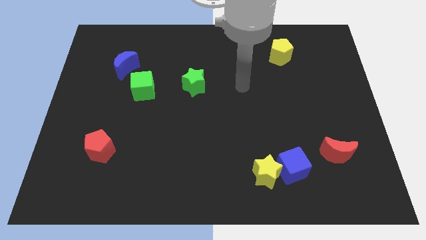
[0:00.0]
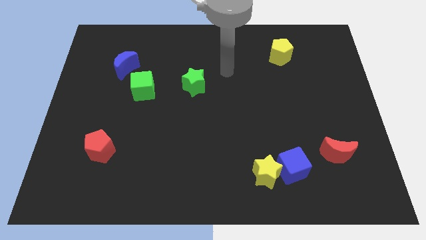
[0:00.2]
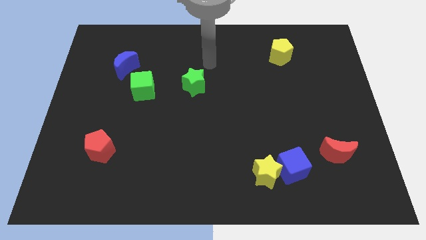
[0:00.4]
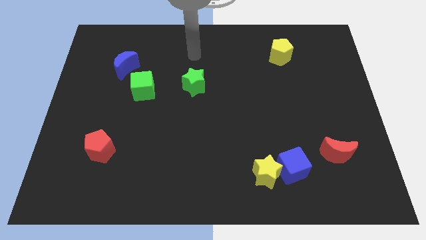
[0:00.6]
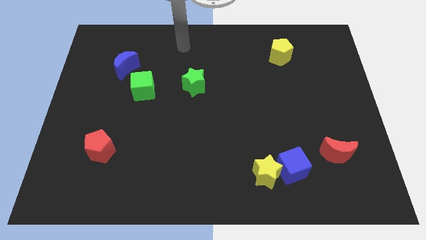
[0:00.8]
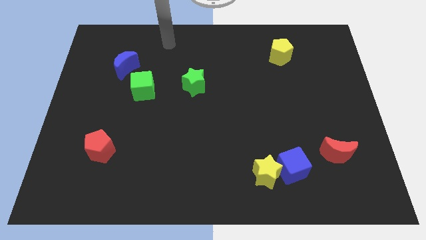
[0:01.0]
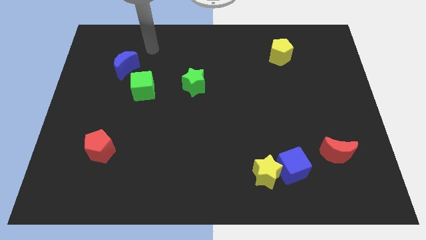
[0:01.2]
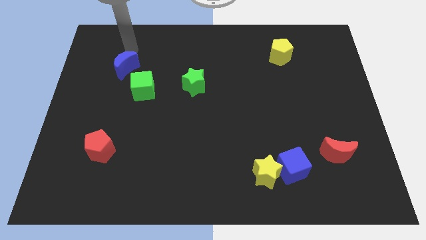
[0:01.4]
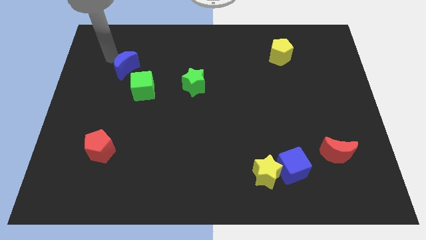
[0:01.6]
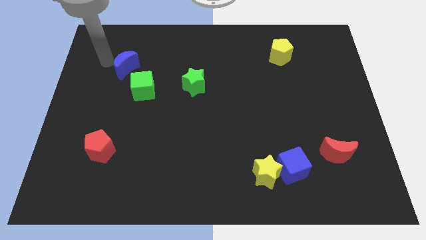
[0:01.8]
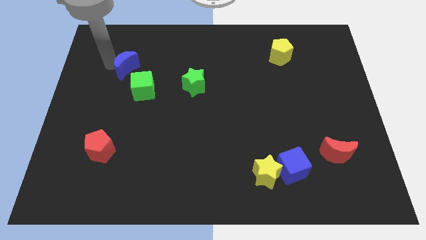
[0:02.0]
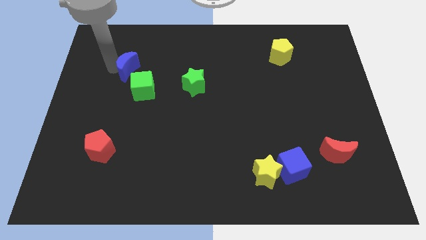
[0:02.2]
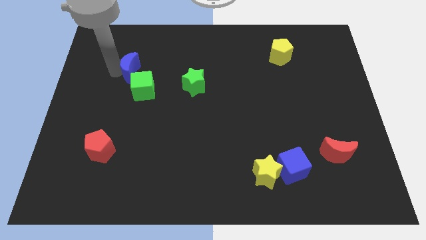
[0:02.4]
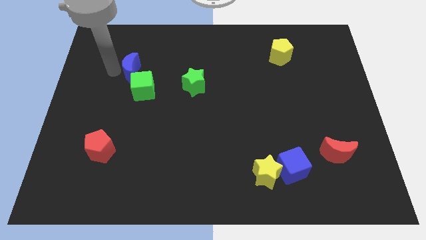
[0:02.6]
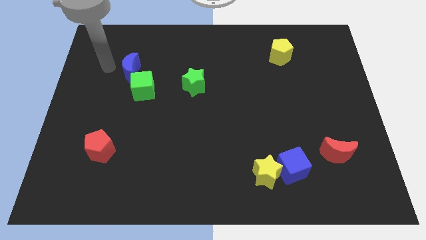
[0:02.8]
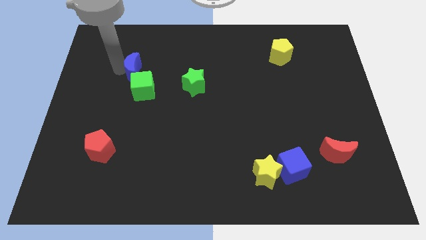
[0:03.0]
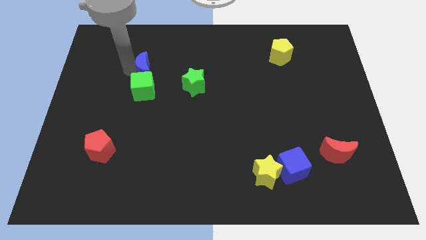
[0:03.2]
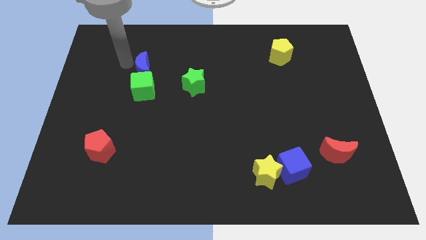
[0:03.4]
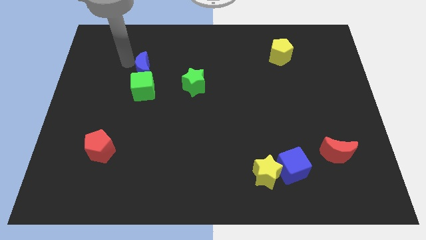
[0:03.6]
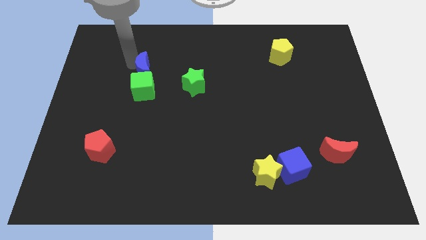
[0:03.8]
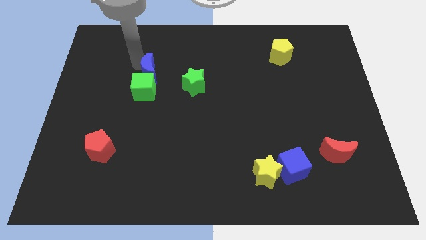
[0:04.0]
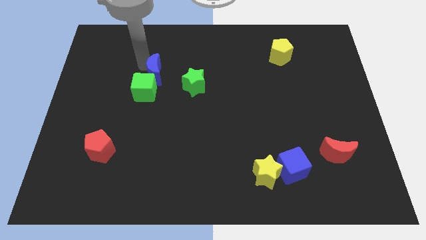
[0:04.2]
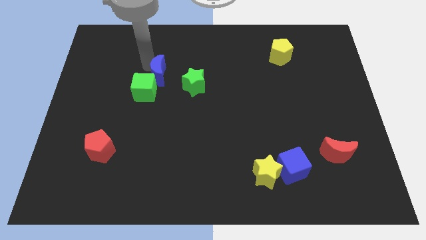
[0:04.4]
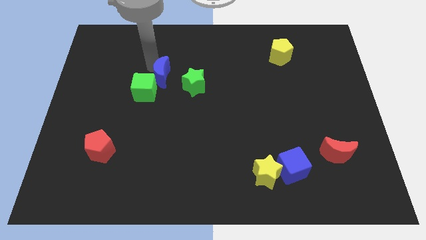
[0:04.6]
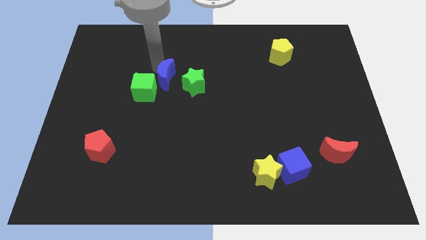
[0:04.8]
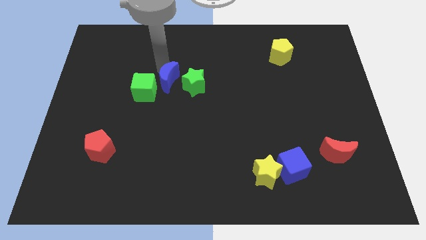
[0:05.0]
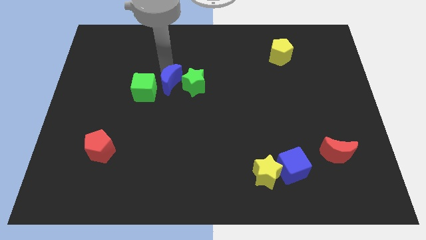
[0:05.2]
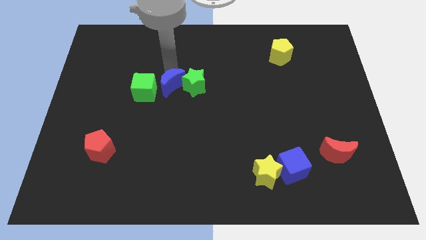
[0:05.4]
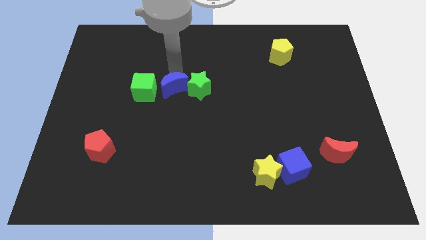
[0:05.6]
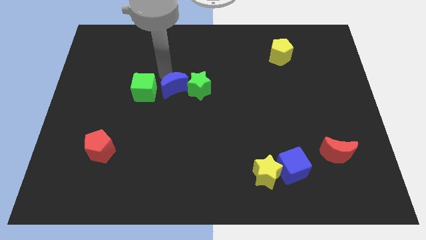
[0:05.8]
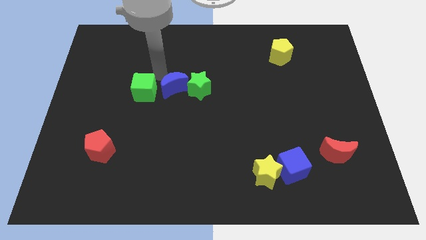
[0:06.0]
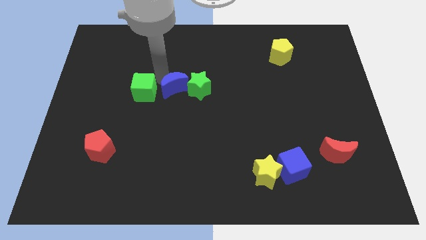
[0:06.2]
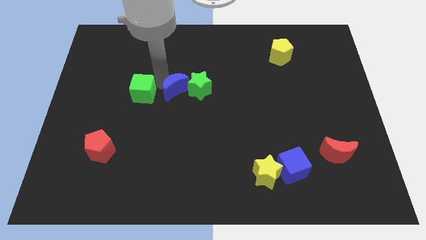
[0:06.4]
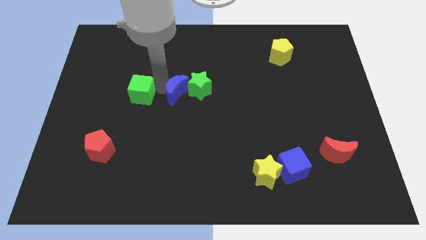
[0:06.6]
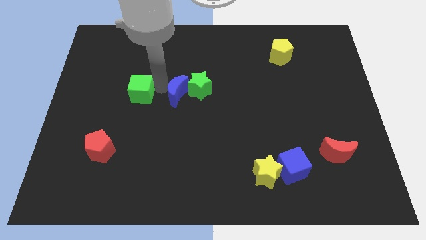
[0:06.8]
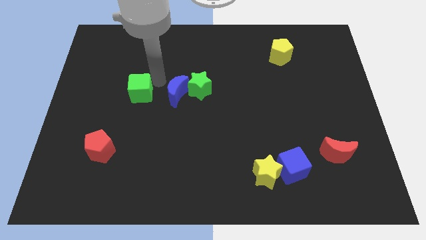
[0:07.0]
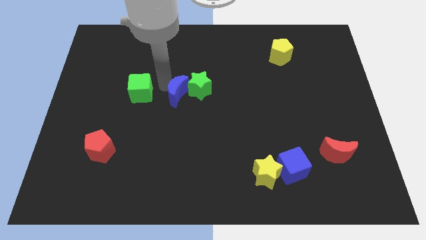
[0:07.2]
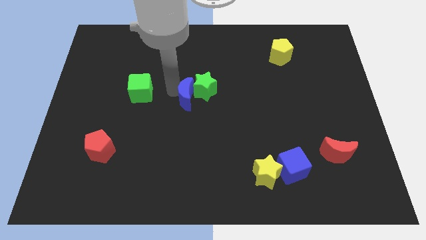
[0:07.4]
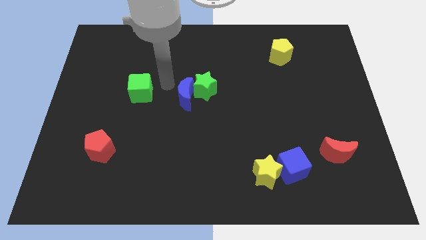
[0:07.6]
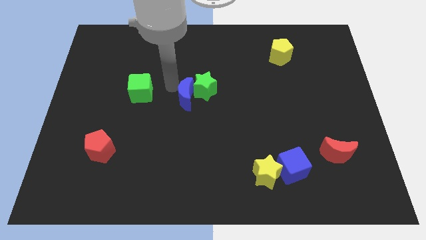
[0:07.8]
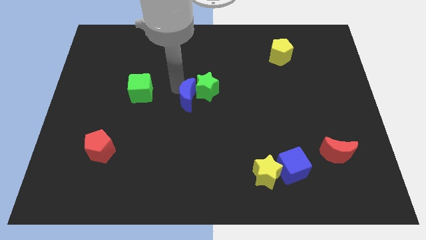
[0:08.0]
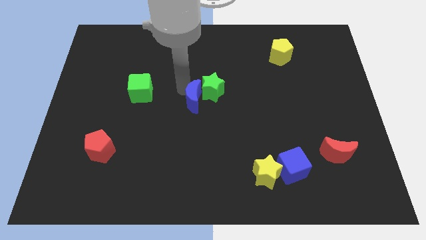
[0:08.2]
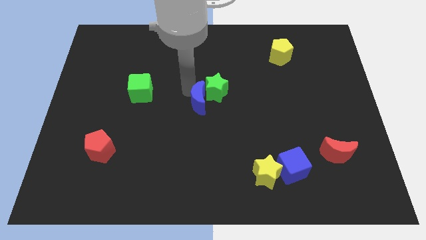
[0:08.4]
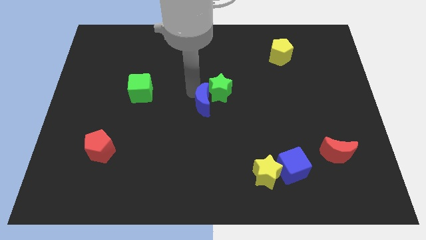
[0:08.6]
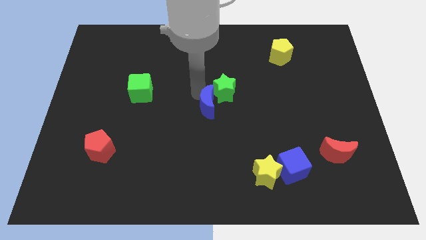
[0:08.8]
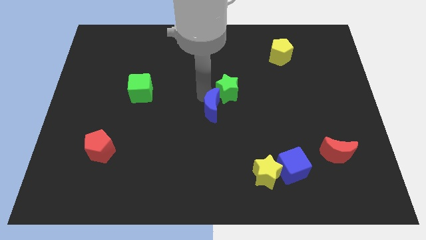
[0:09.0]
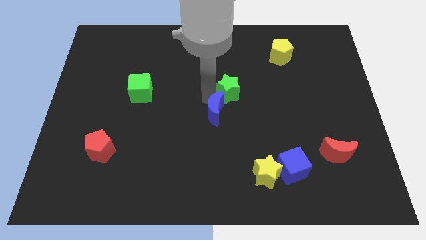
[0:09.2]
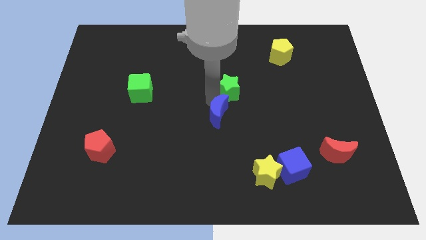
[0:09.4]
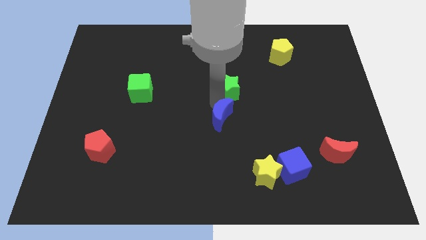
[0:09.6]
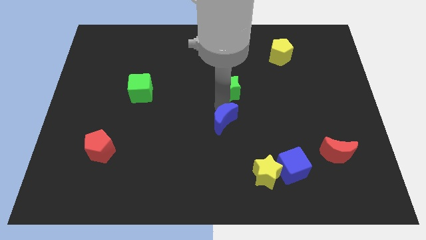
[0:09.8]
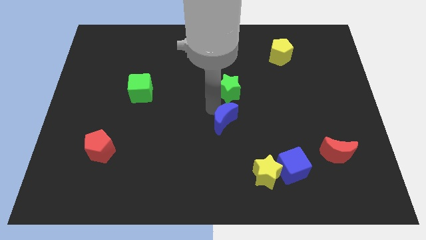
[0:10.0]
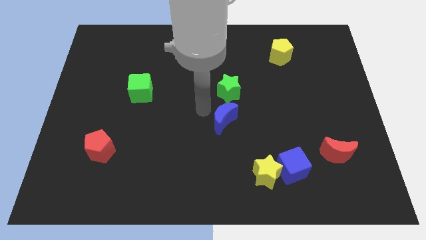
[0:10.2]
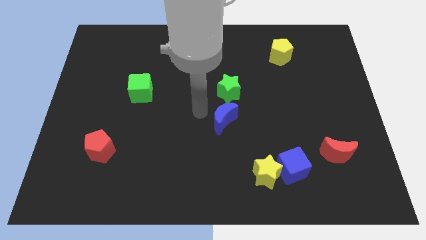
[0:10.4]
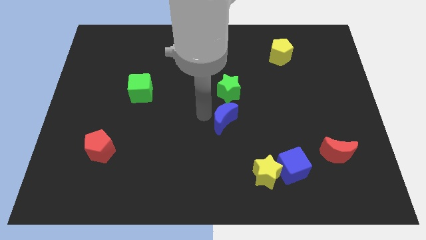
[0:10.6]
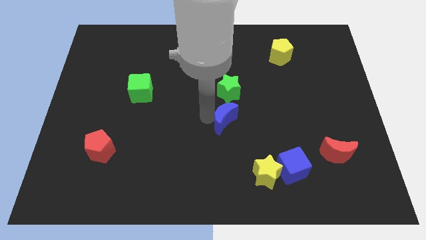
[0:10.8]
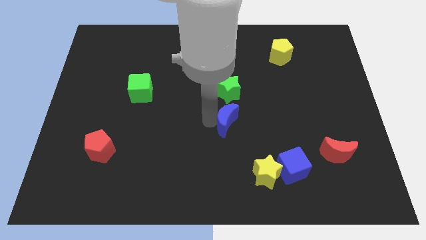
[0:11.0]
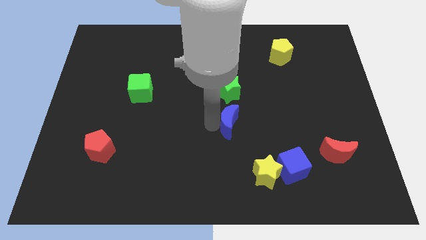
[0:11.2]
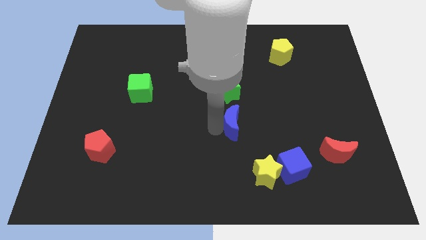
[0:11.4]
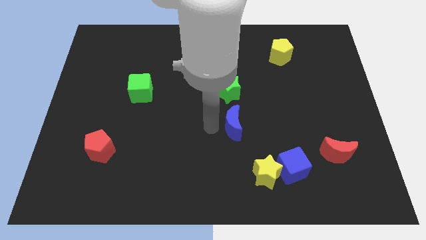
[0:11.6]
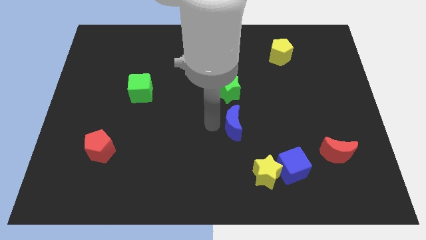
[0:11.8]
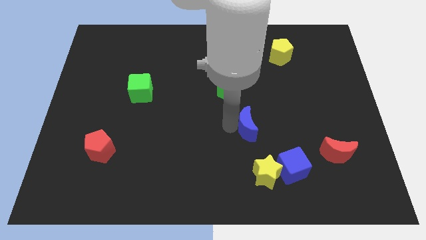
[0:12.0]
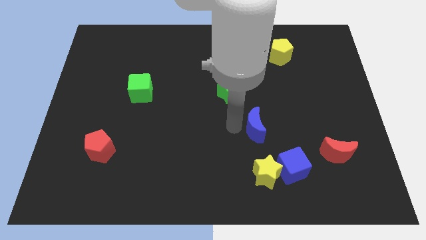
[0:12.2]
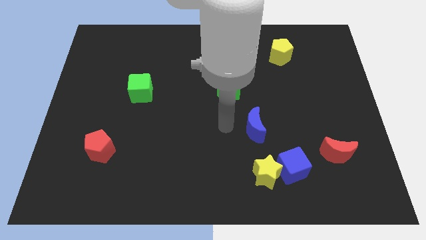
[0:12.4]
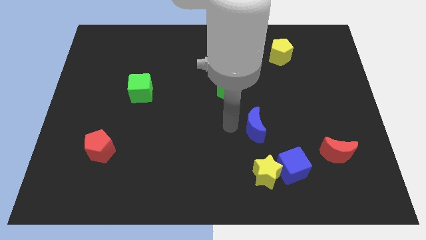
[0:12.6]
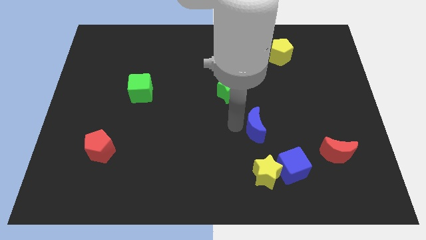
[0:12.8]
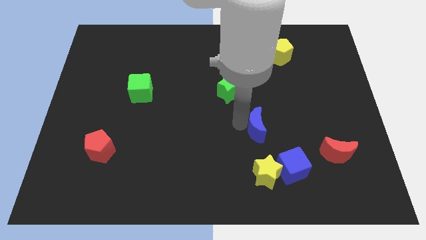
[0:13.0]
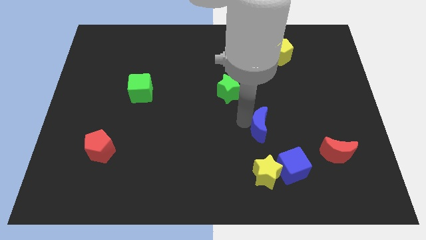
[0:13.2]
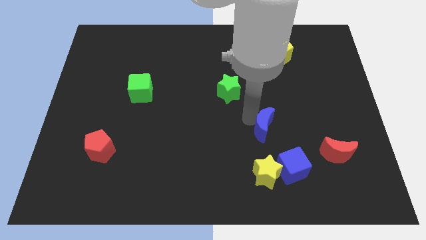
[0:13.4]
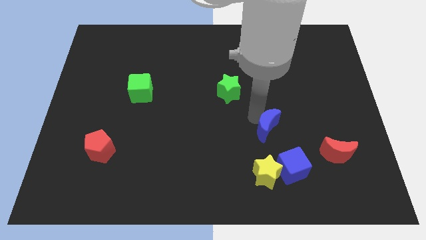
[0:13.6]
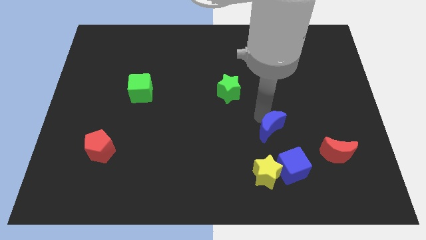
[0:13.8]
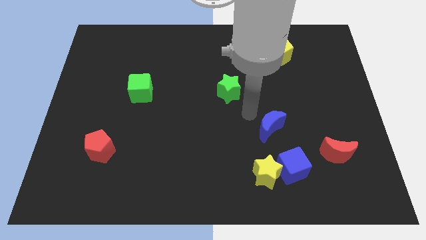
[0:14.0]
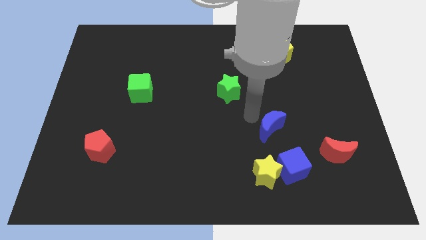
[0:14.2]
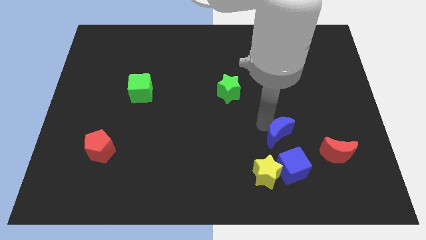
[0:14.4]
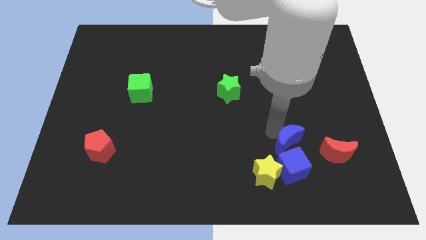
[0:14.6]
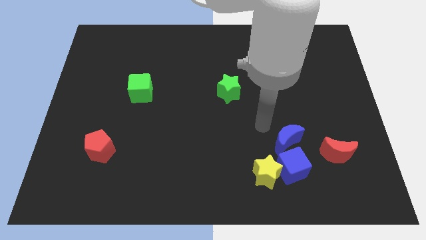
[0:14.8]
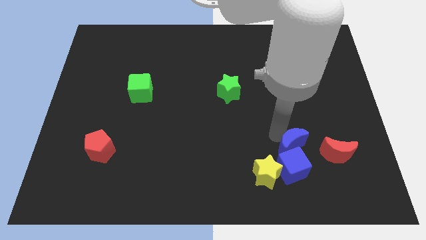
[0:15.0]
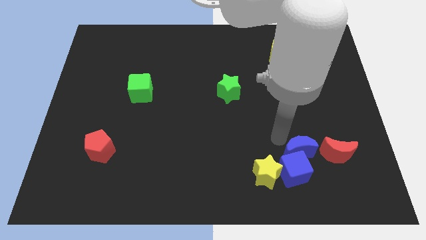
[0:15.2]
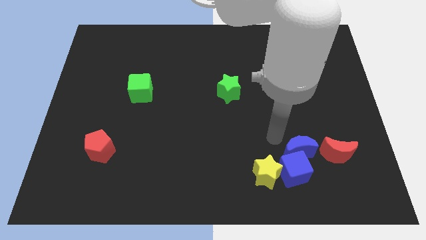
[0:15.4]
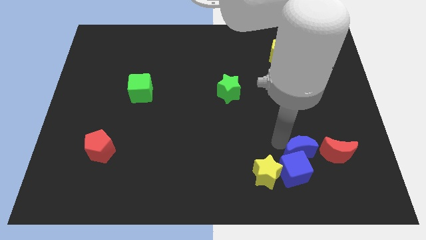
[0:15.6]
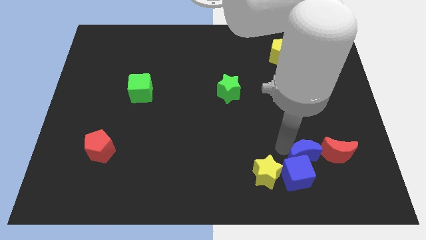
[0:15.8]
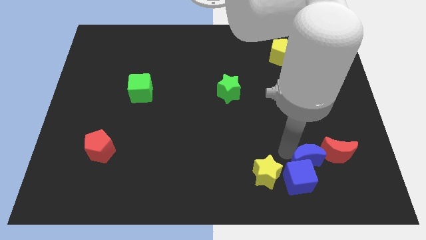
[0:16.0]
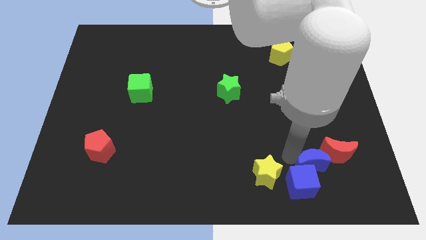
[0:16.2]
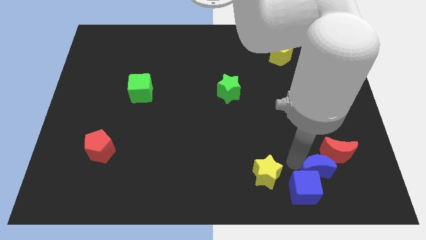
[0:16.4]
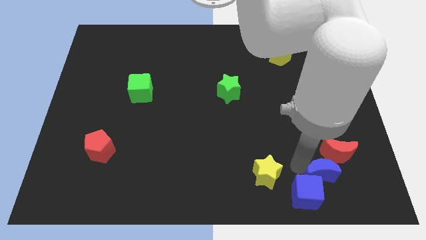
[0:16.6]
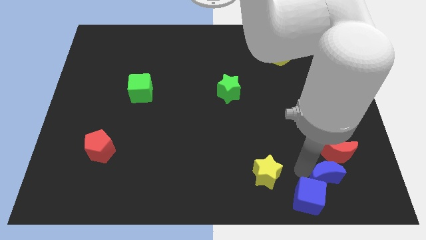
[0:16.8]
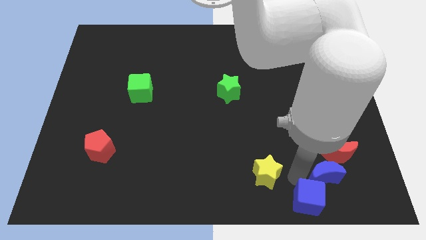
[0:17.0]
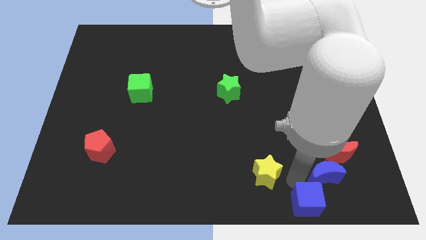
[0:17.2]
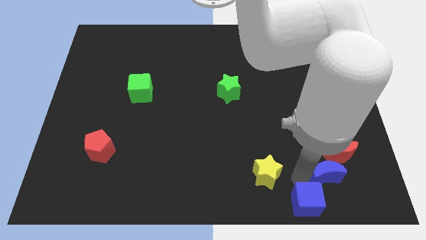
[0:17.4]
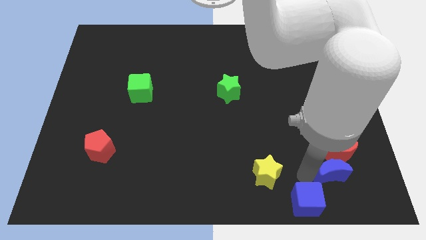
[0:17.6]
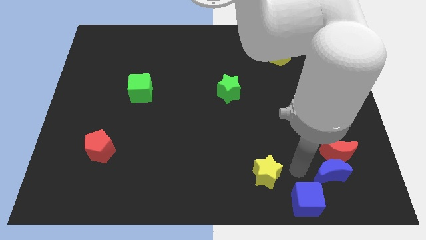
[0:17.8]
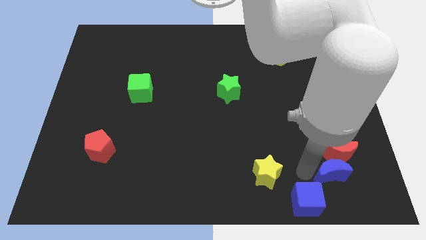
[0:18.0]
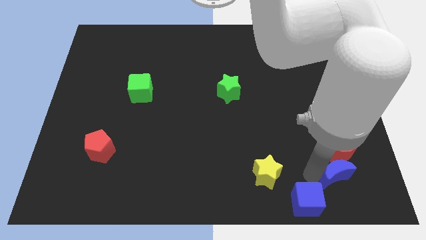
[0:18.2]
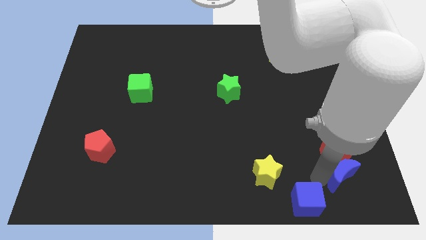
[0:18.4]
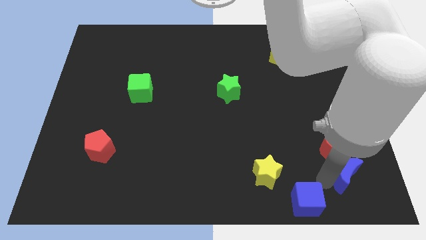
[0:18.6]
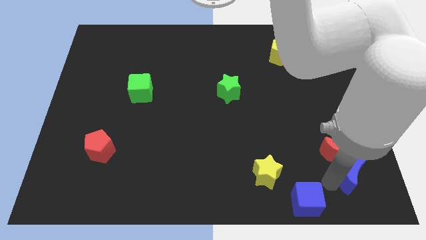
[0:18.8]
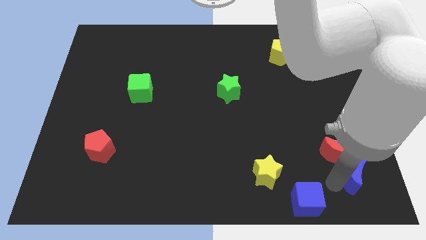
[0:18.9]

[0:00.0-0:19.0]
slide the blue moon to the bottom right
